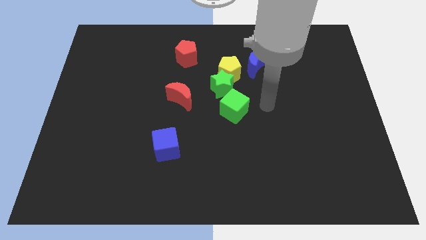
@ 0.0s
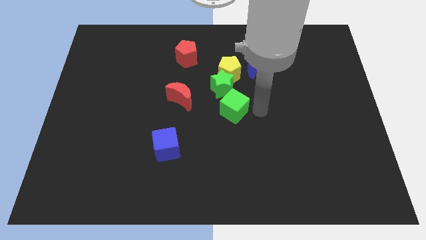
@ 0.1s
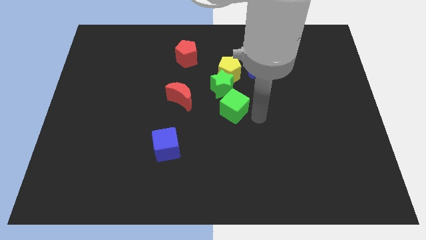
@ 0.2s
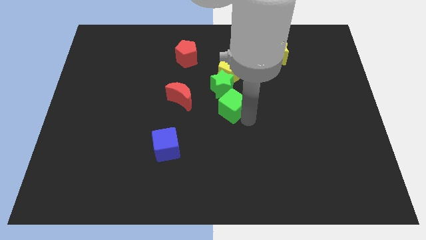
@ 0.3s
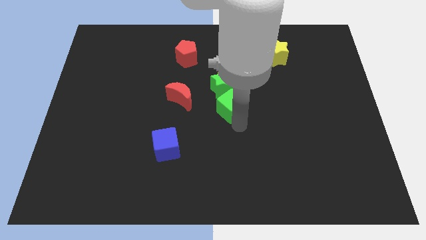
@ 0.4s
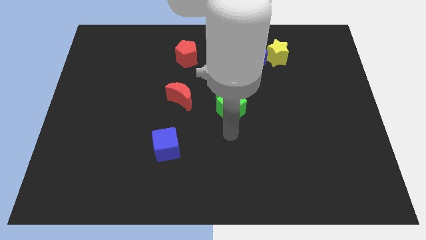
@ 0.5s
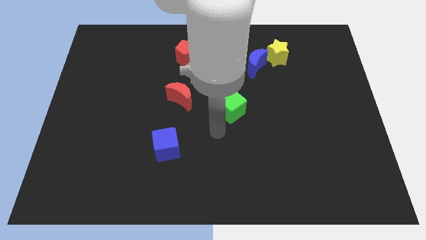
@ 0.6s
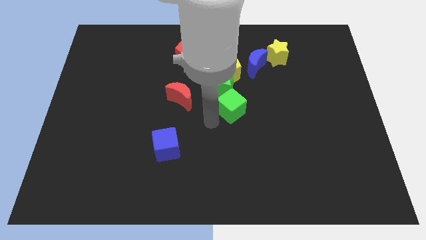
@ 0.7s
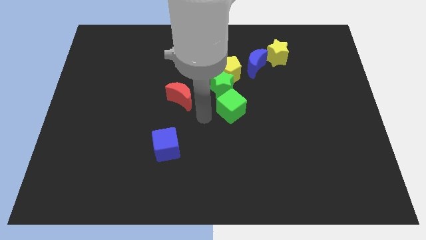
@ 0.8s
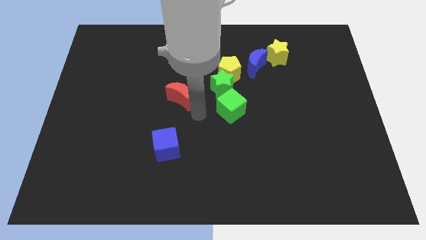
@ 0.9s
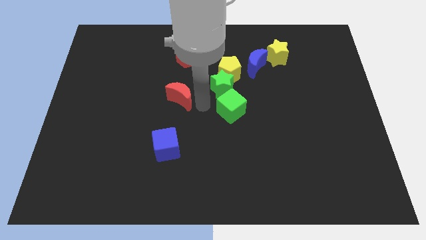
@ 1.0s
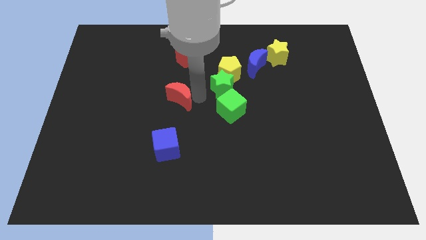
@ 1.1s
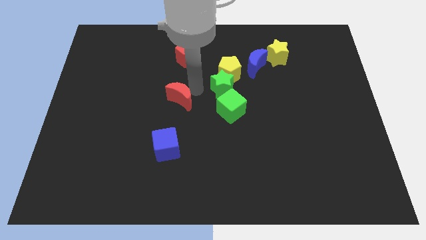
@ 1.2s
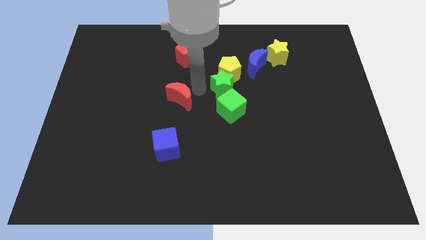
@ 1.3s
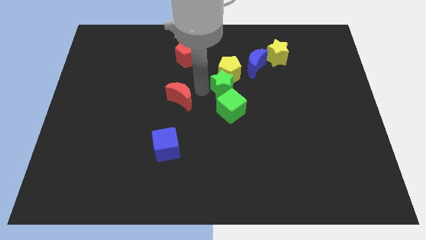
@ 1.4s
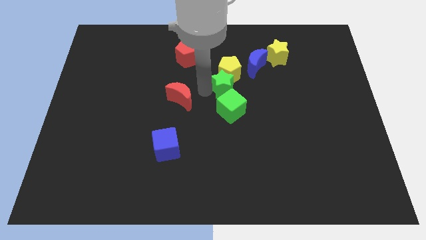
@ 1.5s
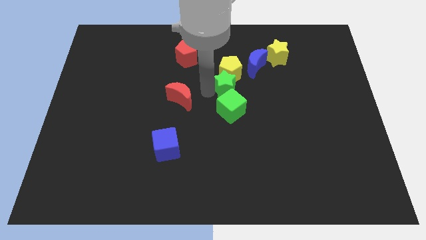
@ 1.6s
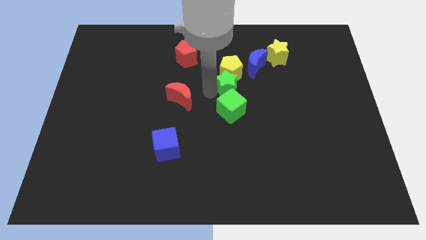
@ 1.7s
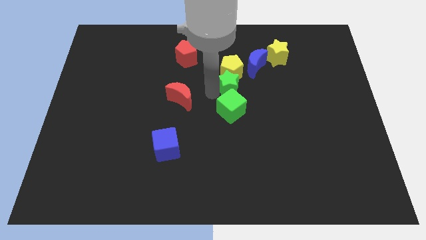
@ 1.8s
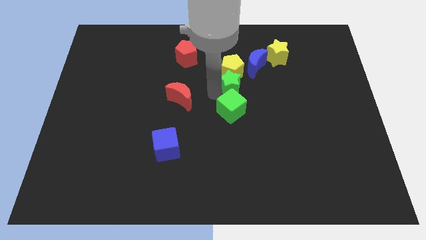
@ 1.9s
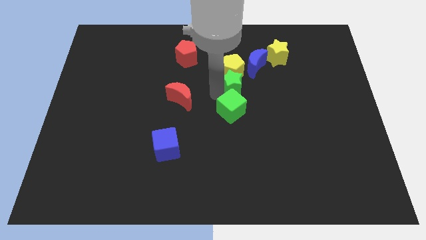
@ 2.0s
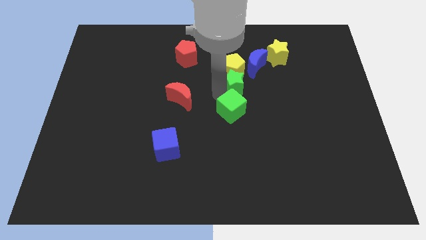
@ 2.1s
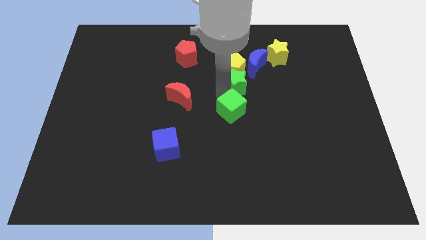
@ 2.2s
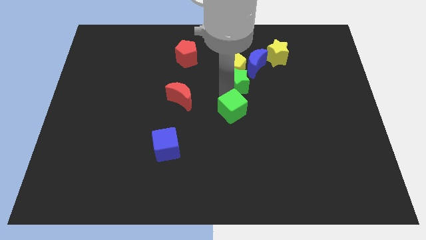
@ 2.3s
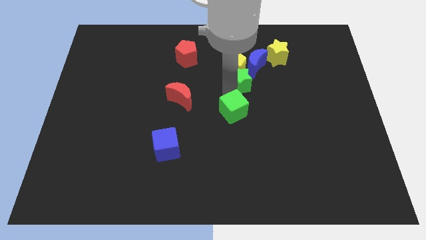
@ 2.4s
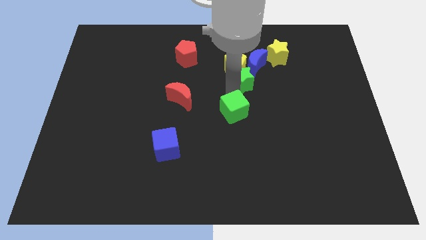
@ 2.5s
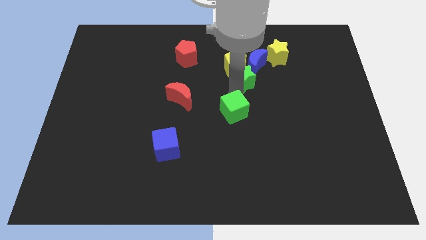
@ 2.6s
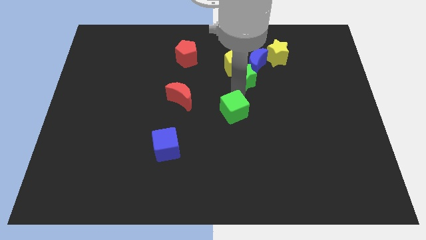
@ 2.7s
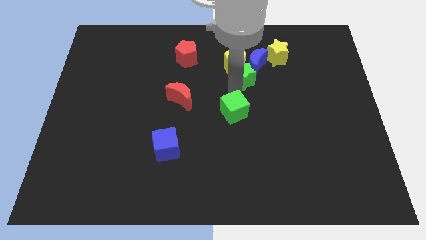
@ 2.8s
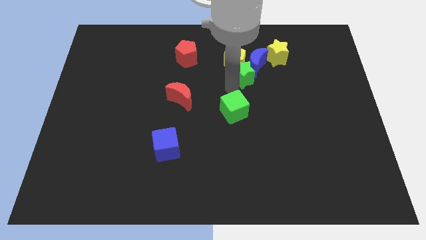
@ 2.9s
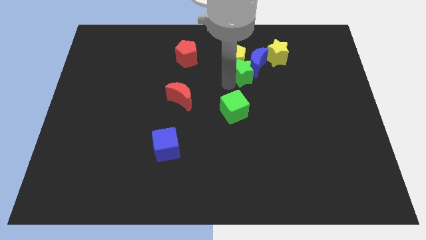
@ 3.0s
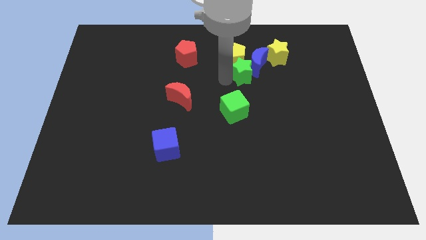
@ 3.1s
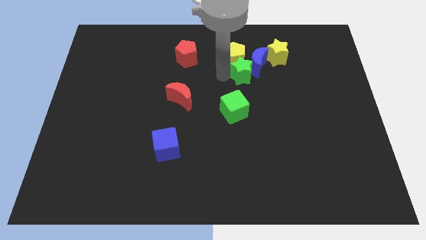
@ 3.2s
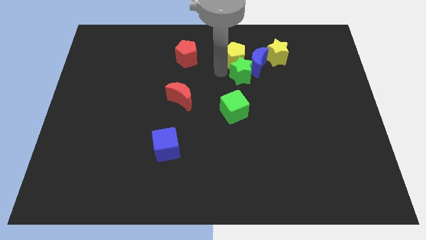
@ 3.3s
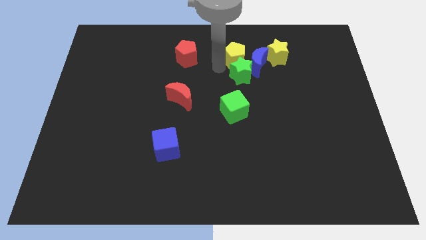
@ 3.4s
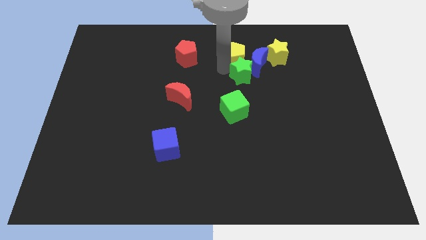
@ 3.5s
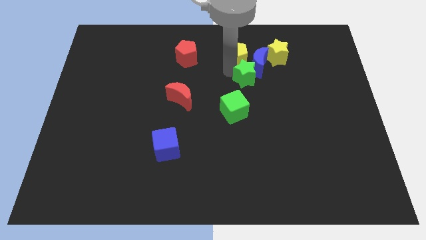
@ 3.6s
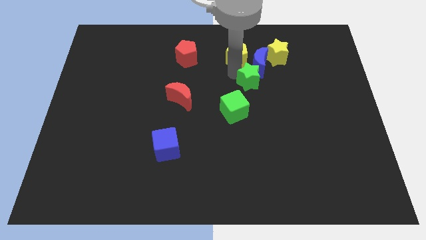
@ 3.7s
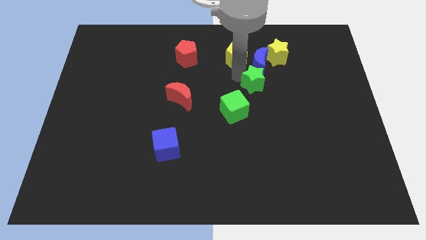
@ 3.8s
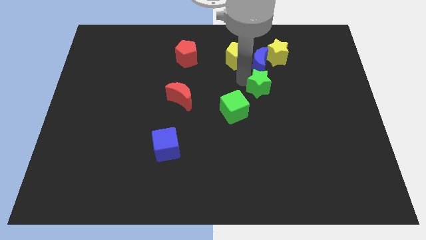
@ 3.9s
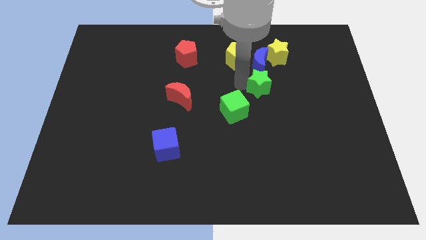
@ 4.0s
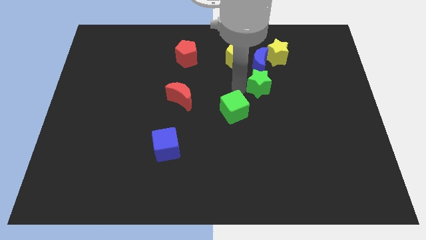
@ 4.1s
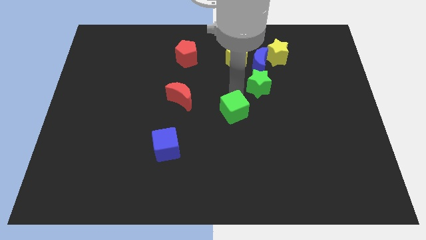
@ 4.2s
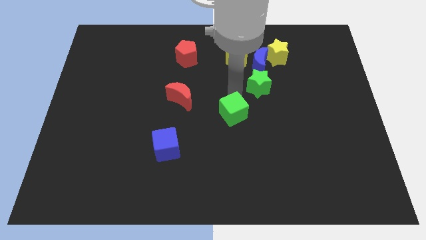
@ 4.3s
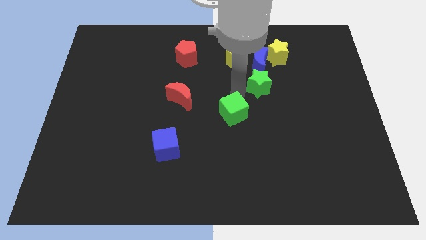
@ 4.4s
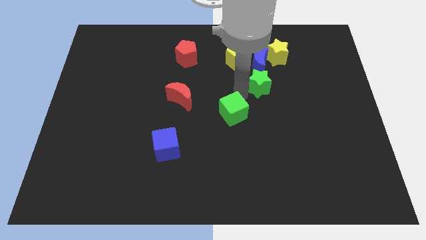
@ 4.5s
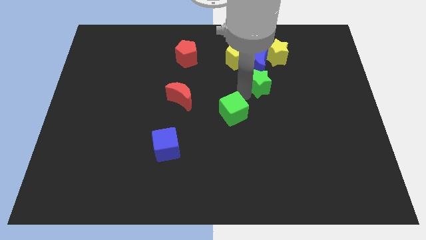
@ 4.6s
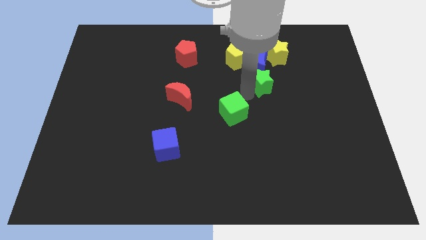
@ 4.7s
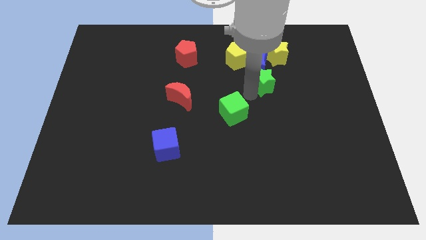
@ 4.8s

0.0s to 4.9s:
slide the green star to the bottom right side of the blue moon

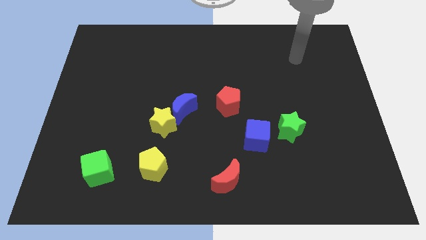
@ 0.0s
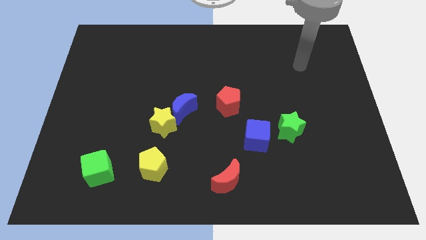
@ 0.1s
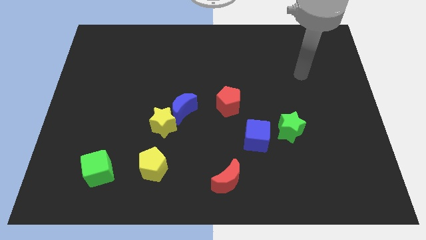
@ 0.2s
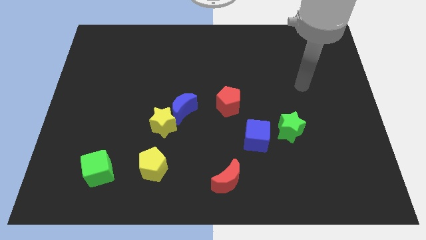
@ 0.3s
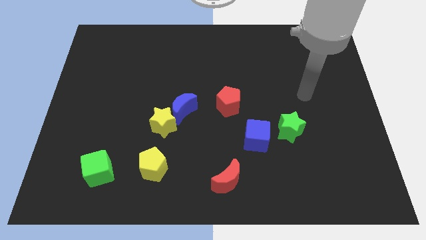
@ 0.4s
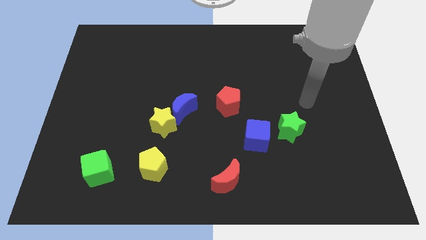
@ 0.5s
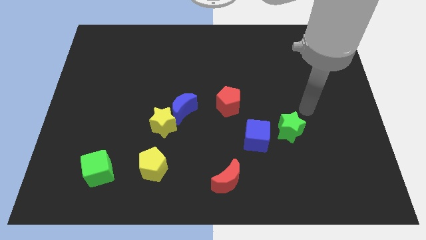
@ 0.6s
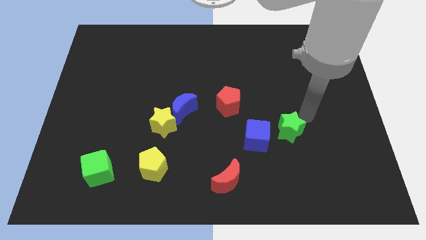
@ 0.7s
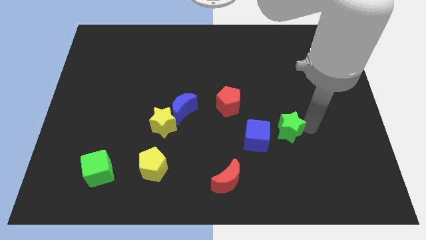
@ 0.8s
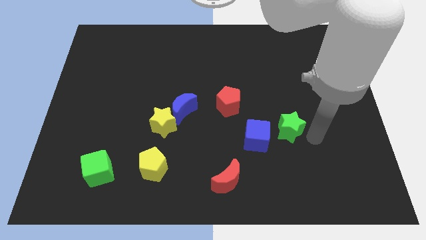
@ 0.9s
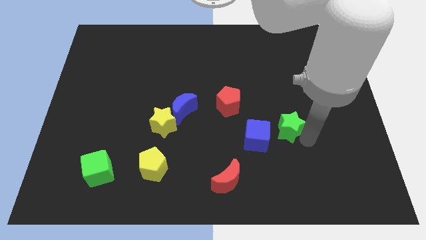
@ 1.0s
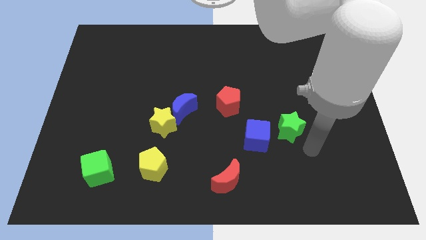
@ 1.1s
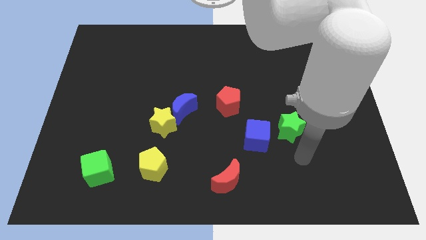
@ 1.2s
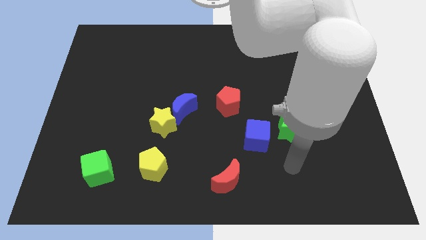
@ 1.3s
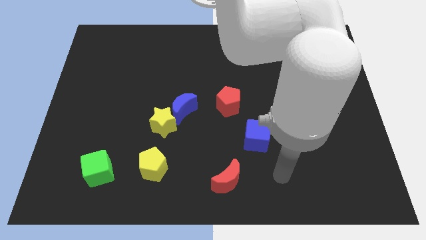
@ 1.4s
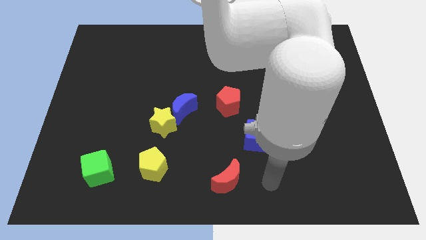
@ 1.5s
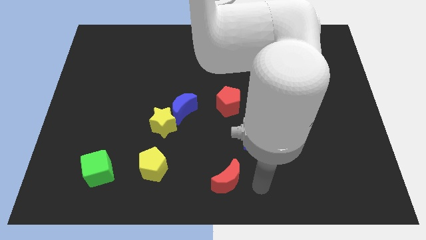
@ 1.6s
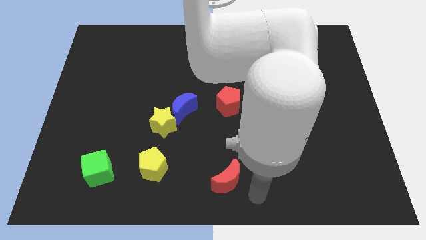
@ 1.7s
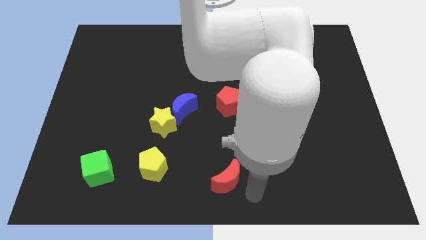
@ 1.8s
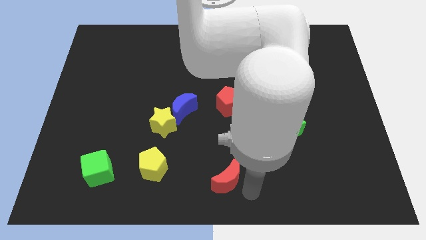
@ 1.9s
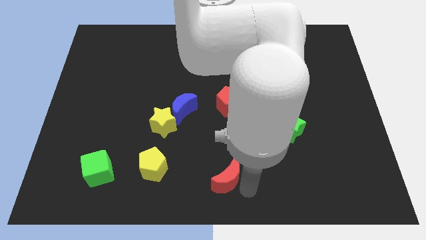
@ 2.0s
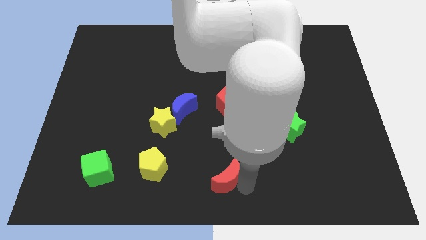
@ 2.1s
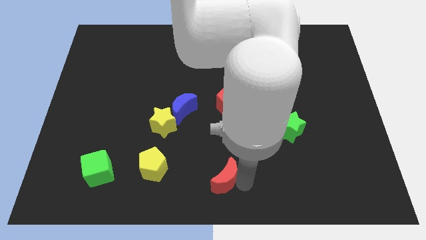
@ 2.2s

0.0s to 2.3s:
put the red moon to the right side of the yellow pentagon
